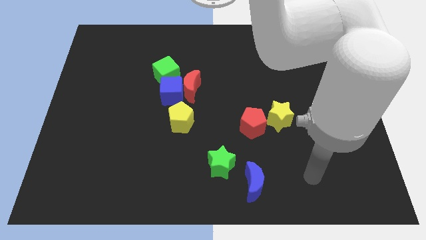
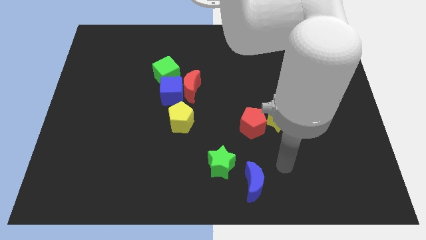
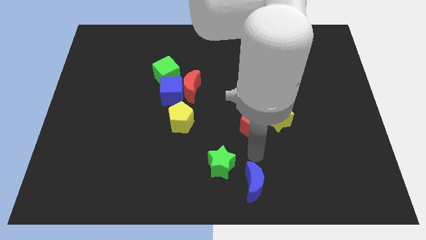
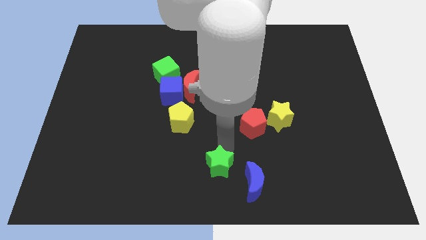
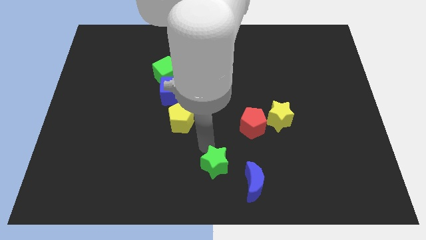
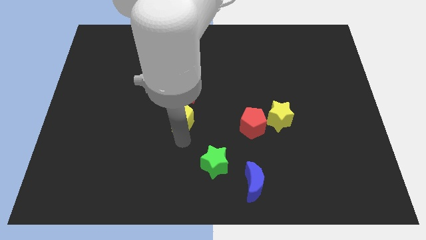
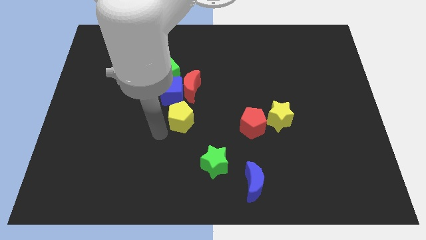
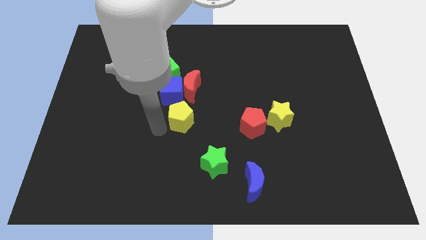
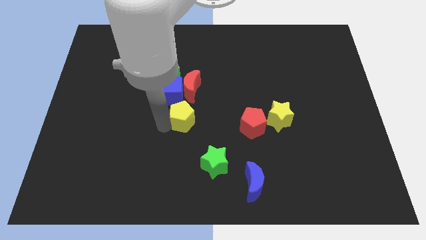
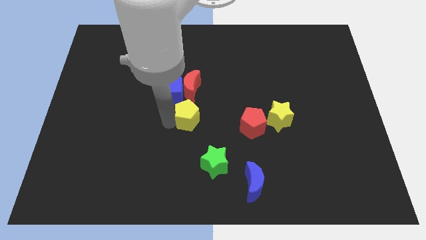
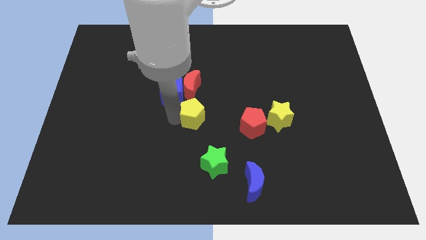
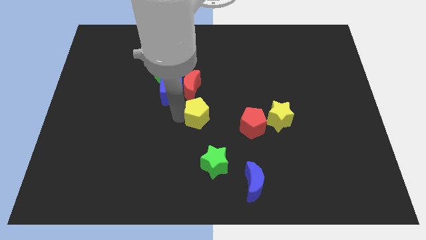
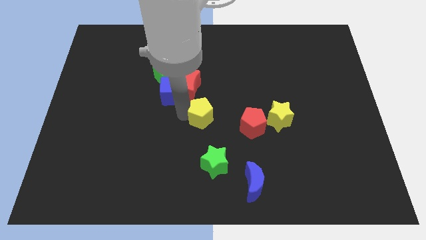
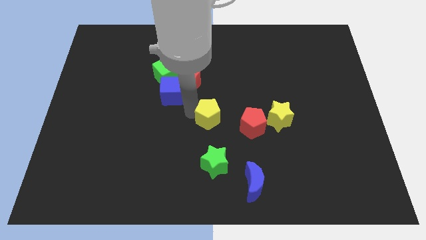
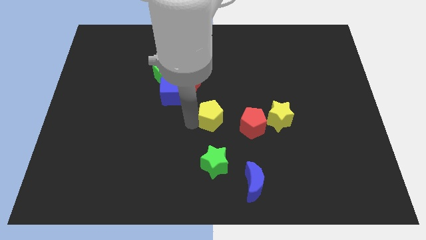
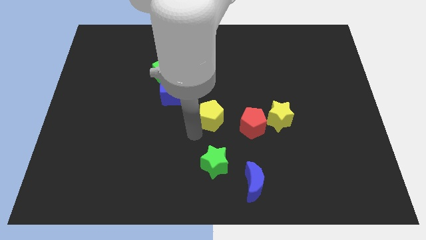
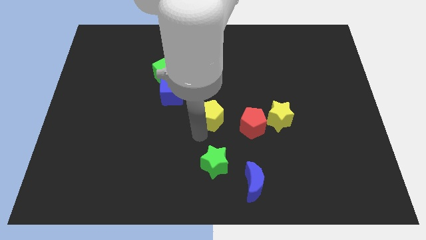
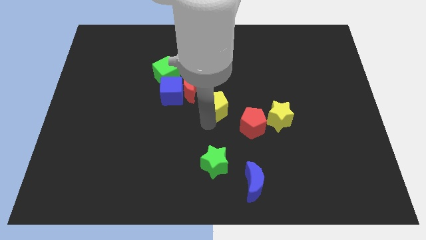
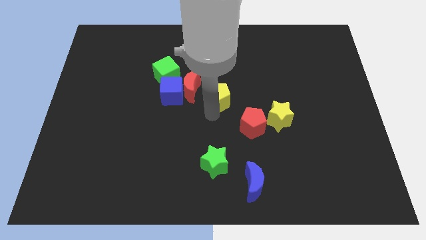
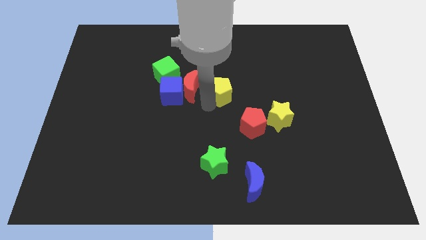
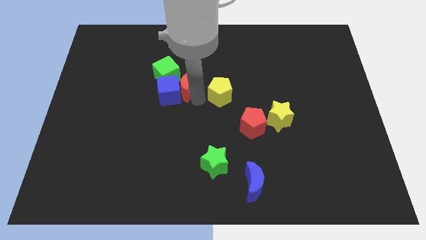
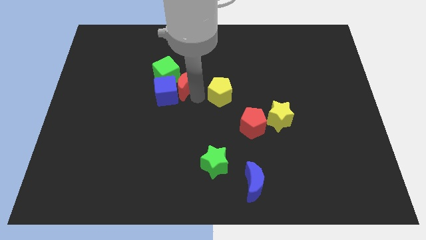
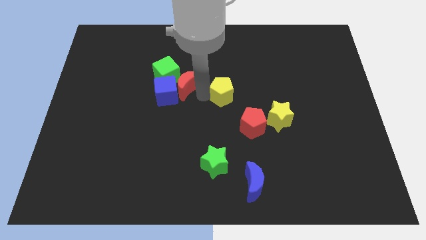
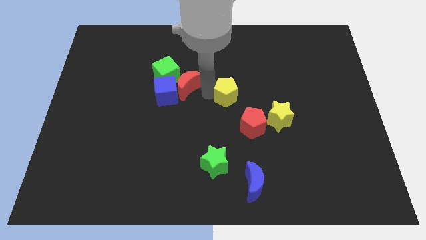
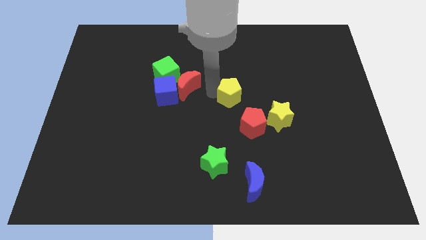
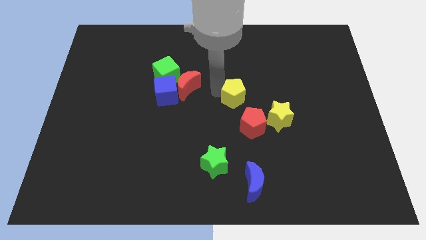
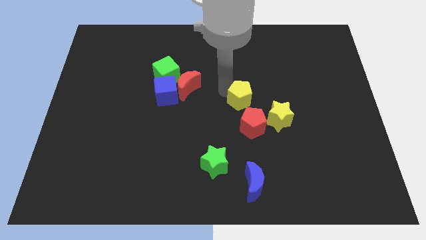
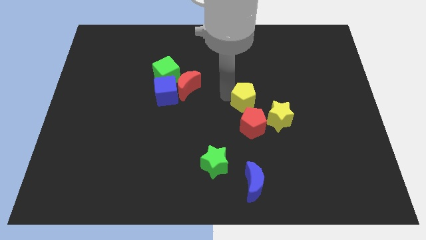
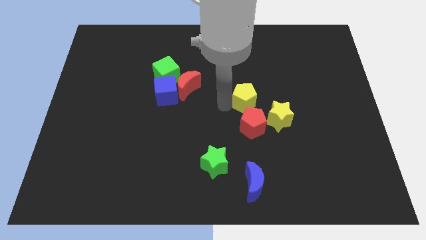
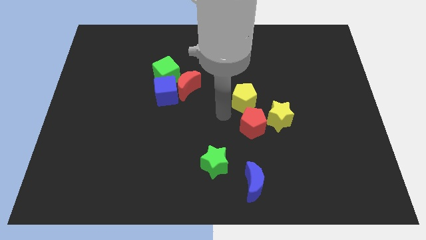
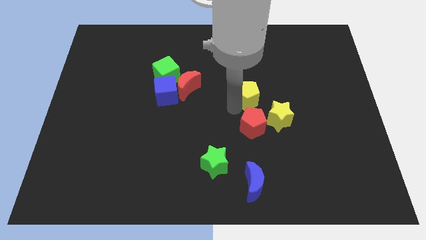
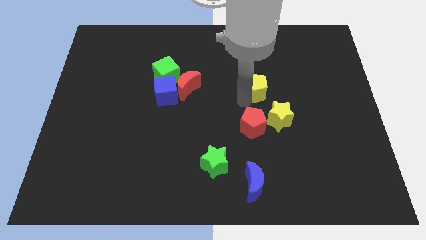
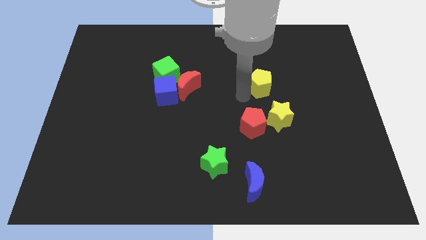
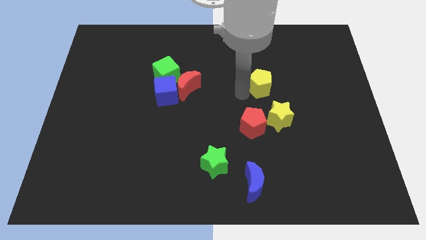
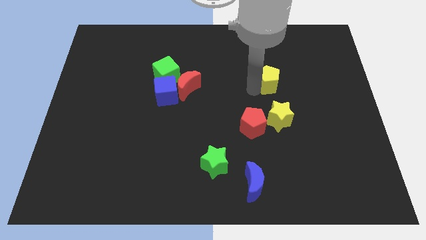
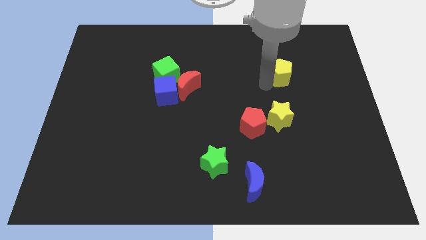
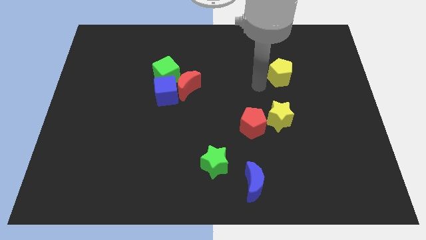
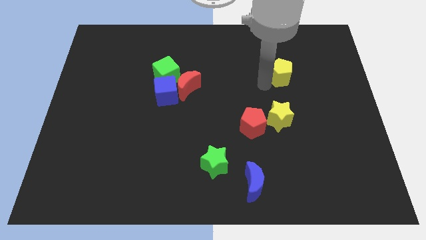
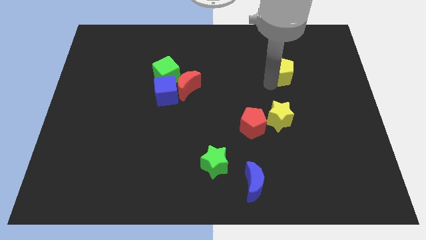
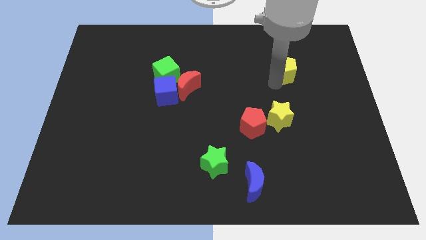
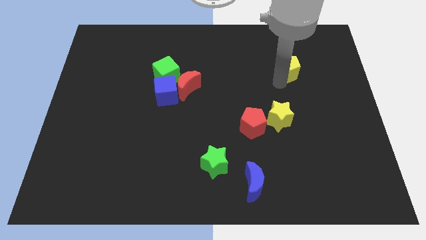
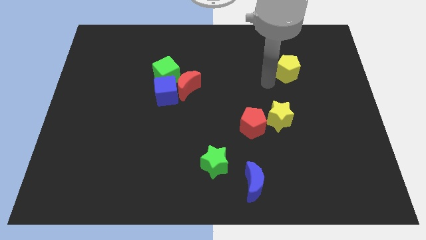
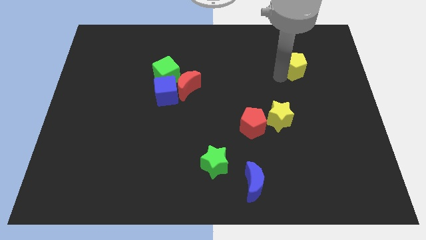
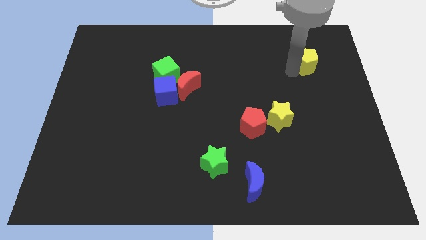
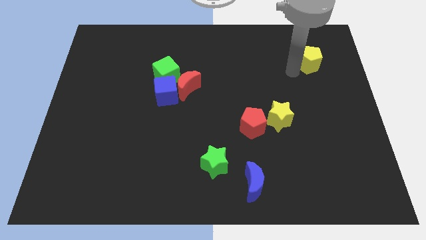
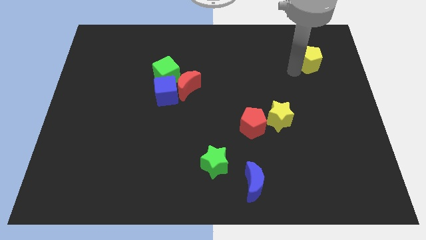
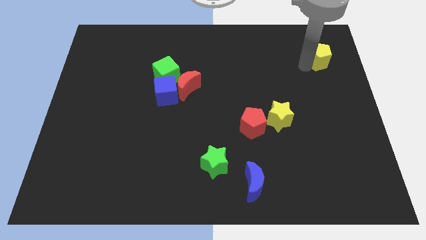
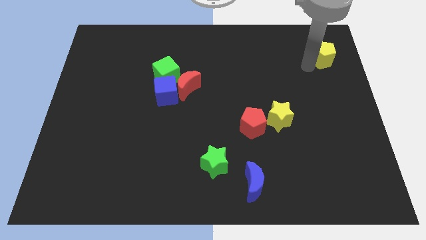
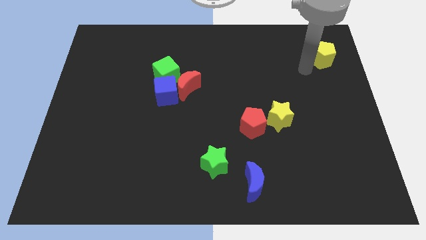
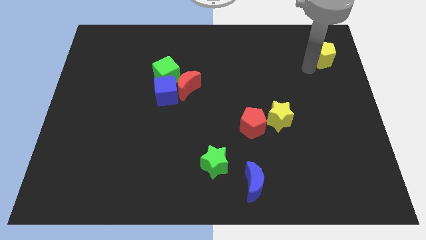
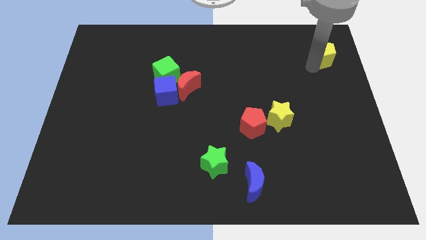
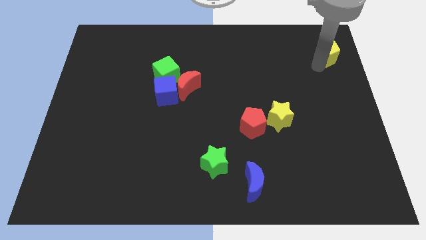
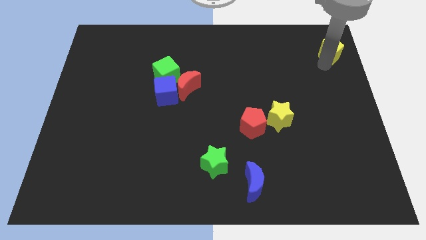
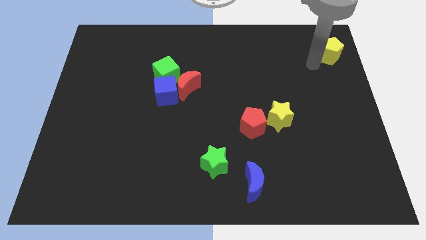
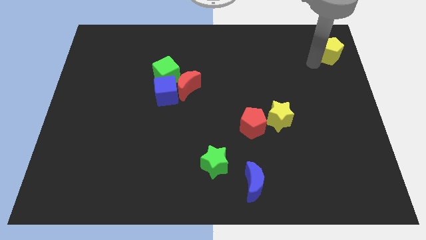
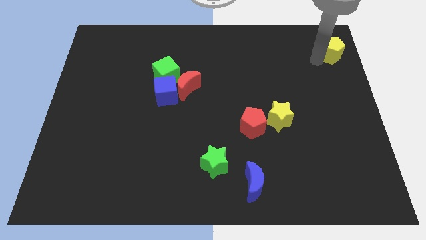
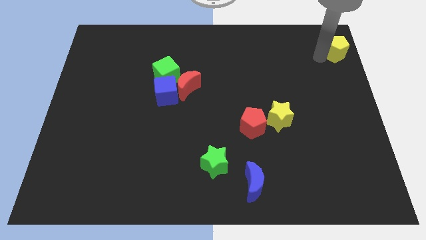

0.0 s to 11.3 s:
push the yellow pentagon to the top right corner
